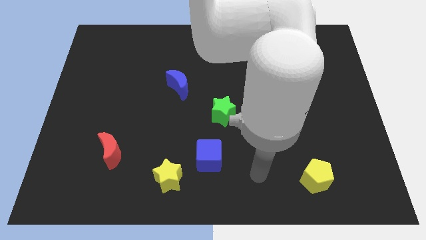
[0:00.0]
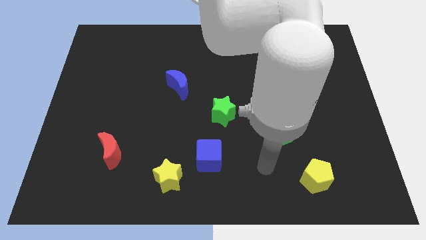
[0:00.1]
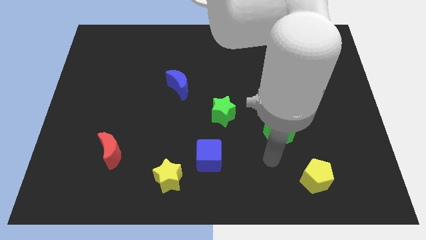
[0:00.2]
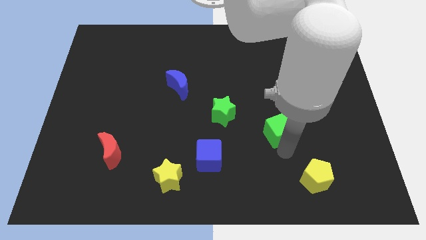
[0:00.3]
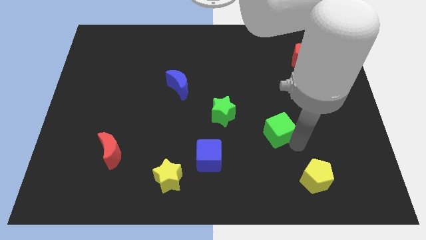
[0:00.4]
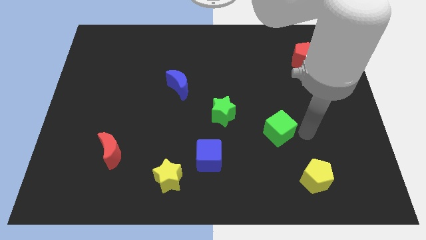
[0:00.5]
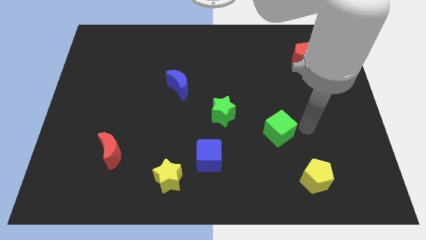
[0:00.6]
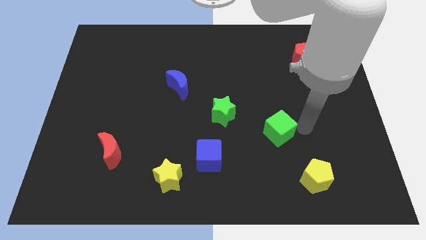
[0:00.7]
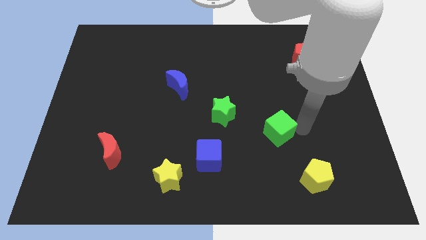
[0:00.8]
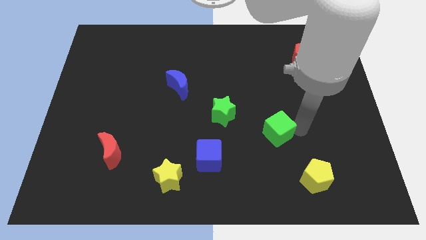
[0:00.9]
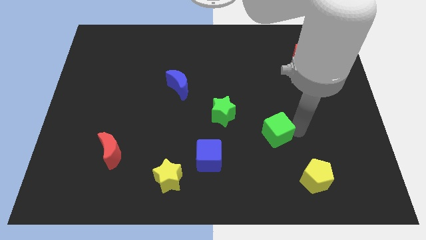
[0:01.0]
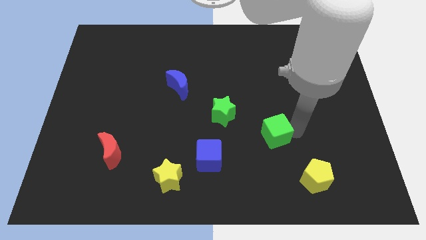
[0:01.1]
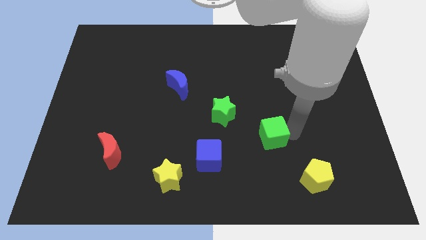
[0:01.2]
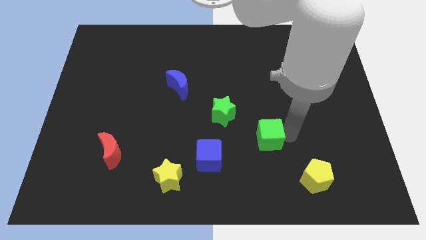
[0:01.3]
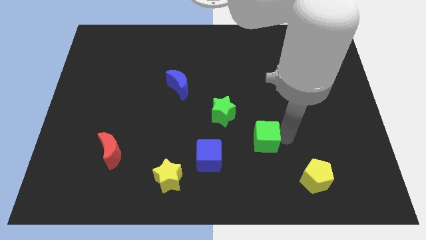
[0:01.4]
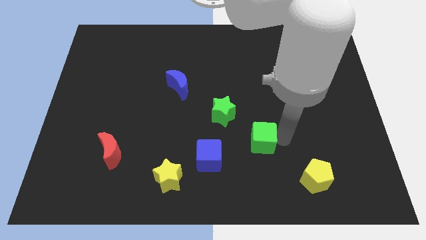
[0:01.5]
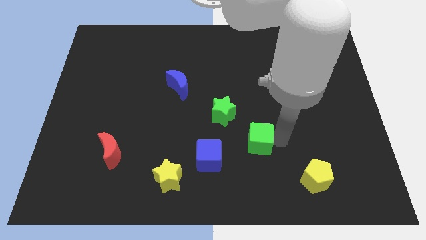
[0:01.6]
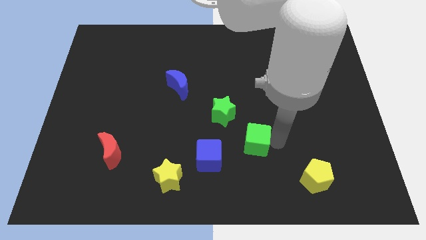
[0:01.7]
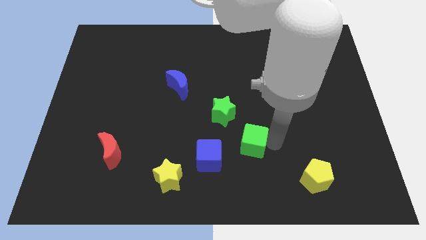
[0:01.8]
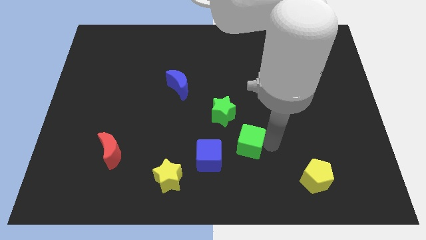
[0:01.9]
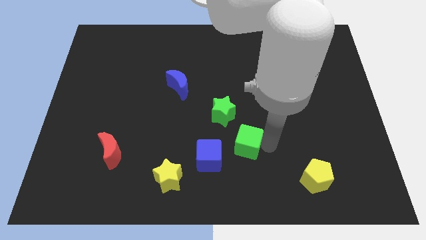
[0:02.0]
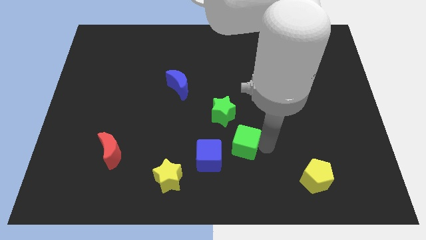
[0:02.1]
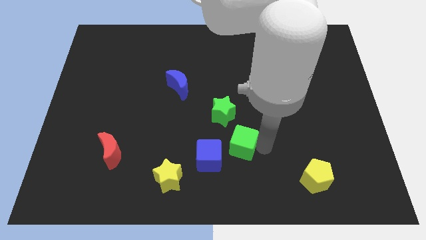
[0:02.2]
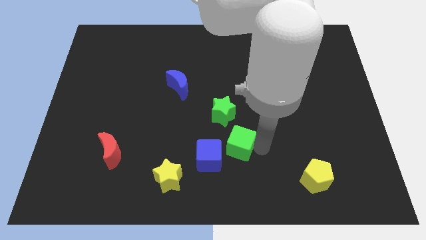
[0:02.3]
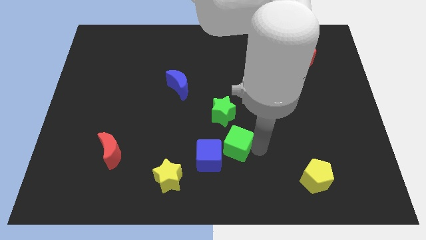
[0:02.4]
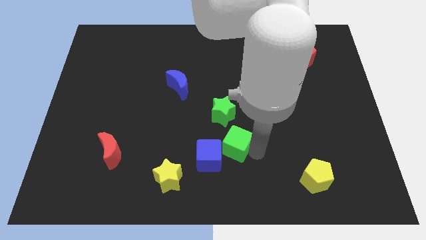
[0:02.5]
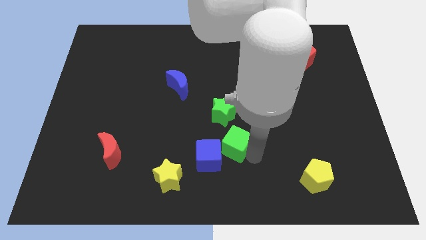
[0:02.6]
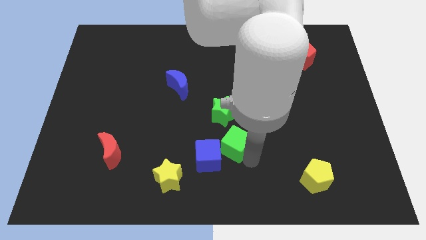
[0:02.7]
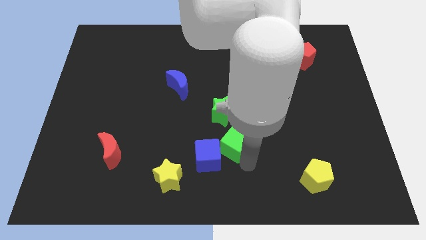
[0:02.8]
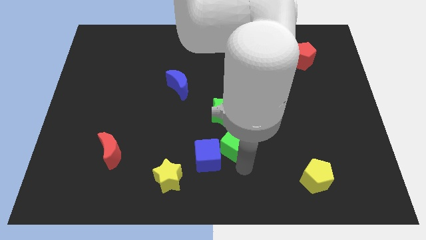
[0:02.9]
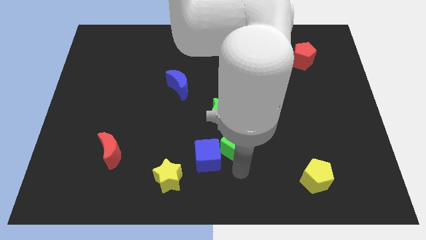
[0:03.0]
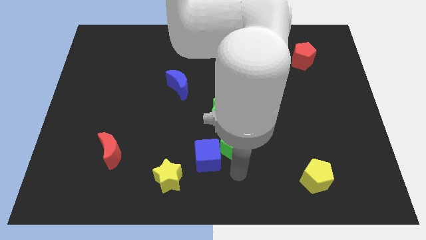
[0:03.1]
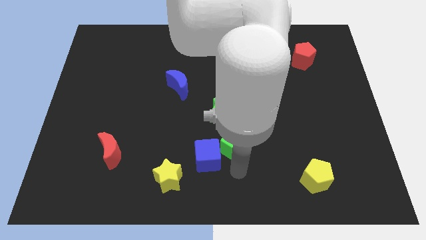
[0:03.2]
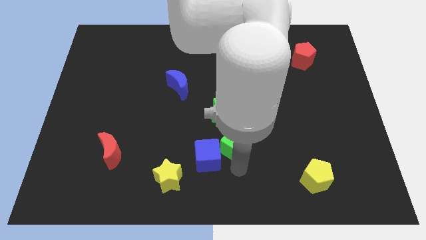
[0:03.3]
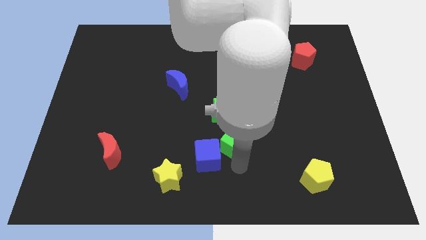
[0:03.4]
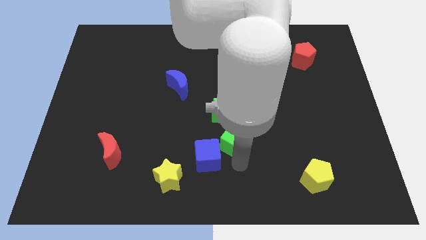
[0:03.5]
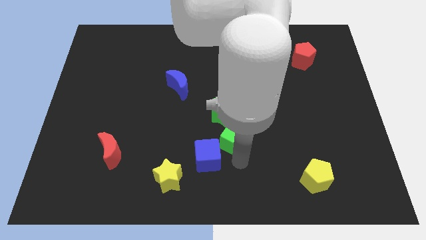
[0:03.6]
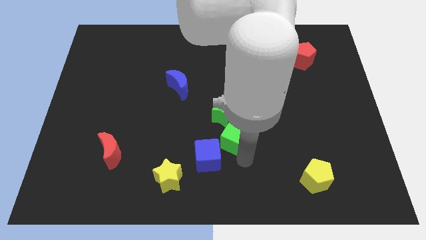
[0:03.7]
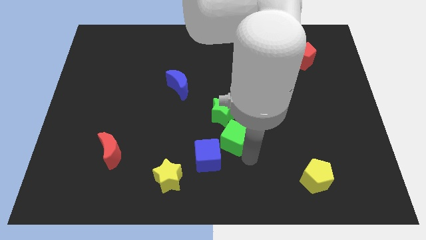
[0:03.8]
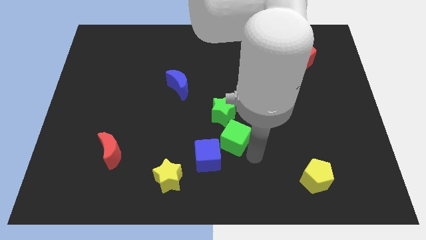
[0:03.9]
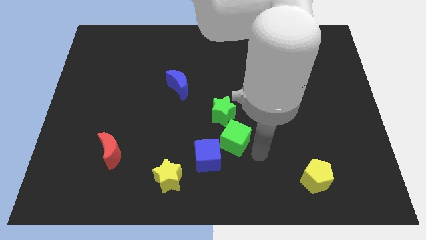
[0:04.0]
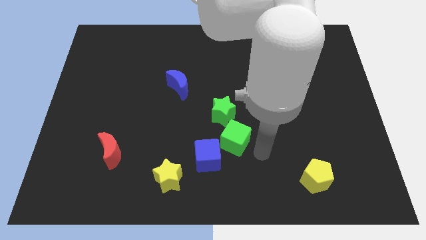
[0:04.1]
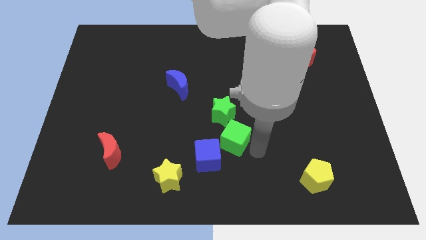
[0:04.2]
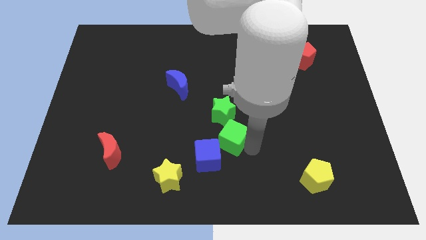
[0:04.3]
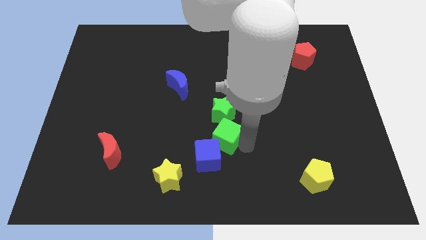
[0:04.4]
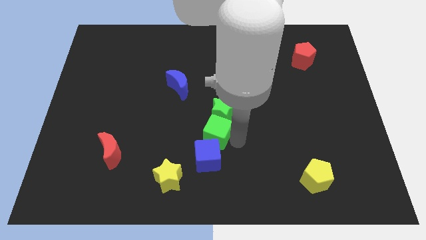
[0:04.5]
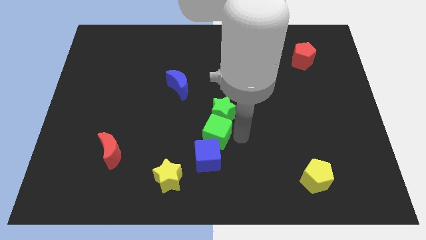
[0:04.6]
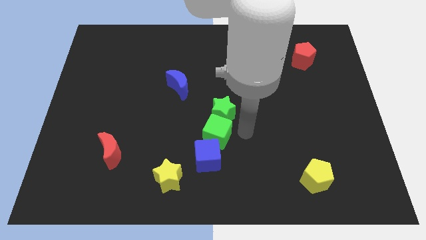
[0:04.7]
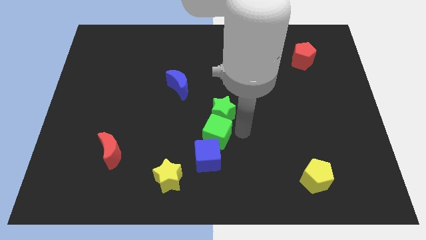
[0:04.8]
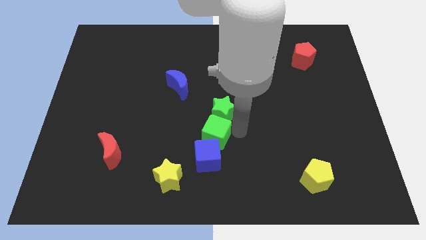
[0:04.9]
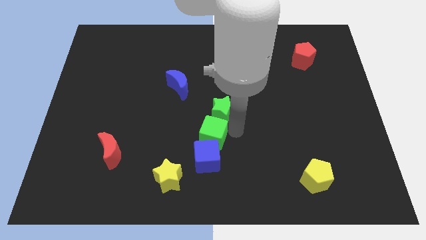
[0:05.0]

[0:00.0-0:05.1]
move the green cube to the top left of the blue cube

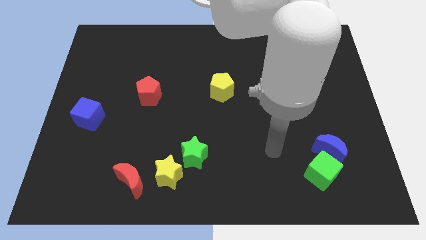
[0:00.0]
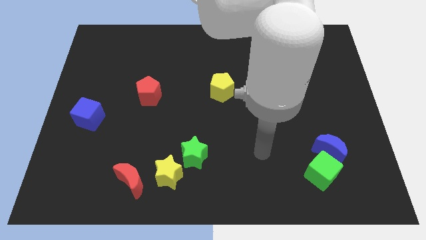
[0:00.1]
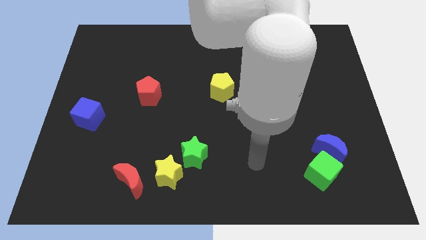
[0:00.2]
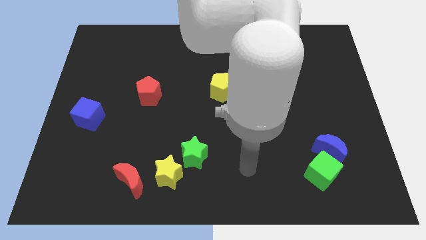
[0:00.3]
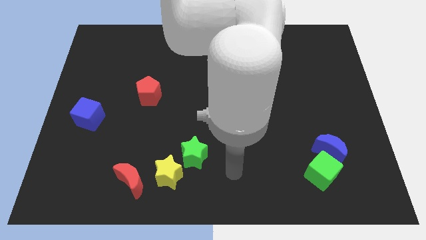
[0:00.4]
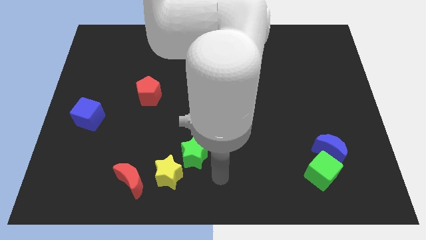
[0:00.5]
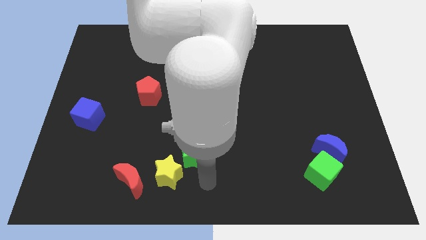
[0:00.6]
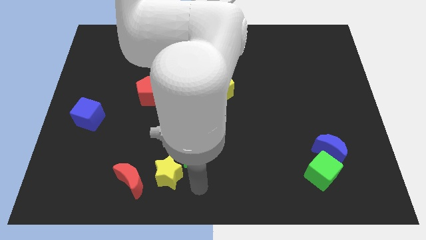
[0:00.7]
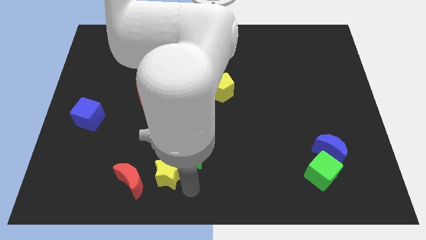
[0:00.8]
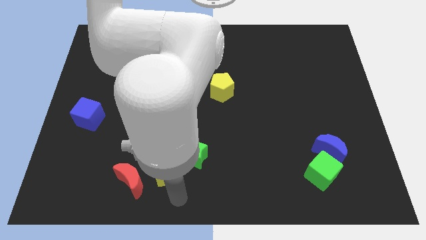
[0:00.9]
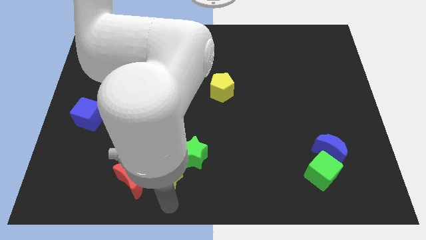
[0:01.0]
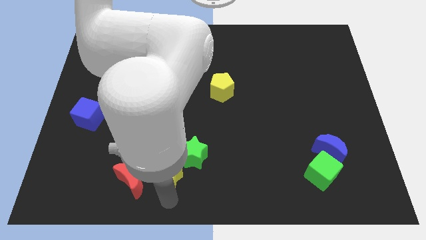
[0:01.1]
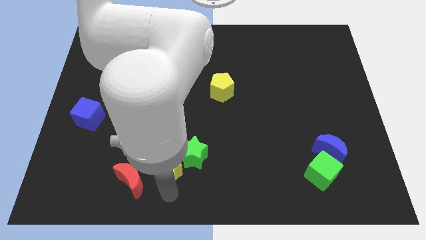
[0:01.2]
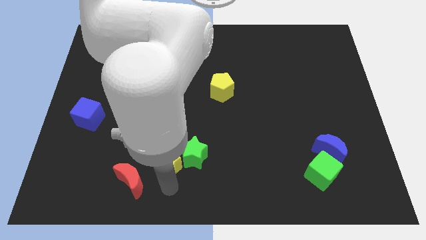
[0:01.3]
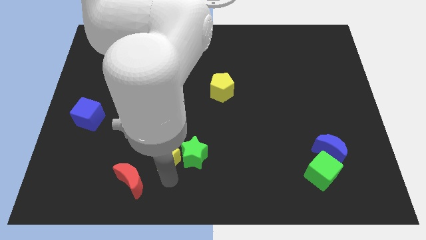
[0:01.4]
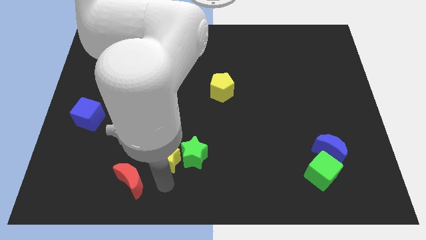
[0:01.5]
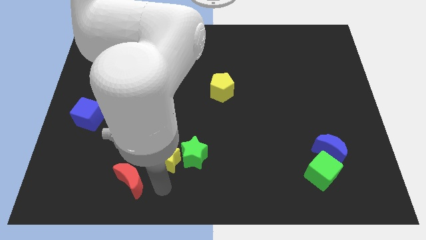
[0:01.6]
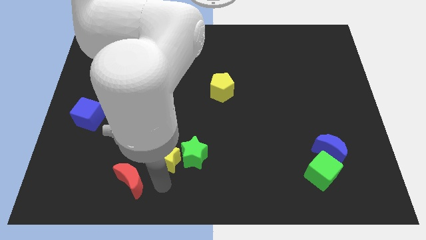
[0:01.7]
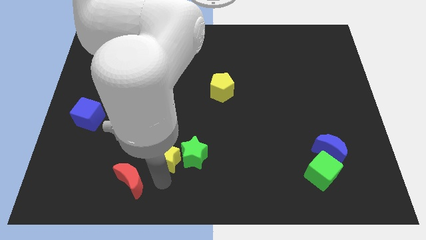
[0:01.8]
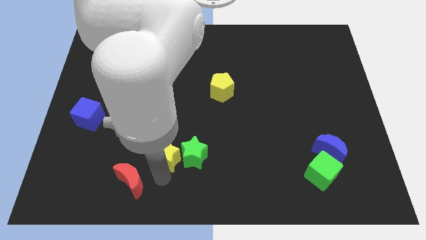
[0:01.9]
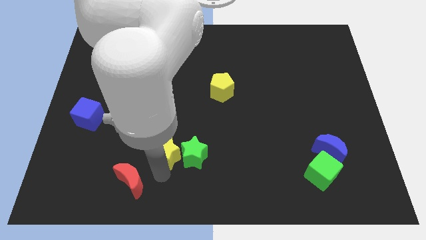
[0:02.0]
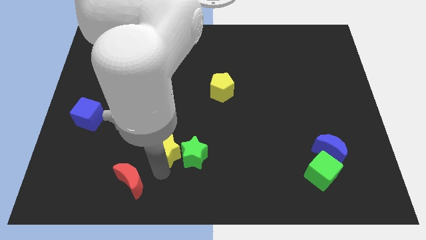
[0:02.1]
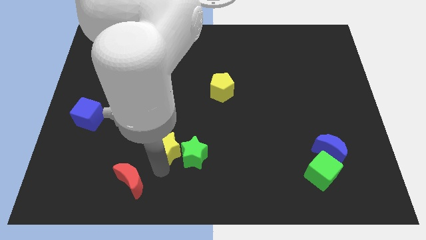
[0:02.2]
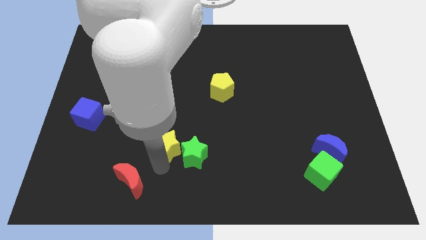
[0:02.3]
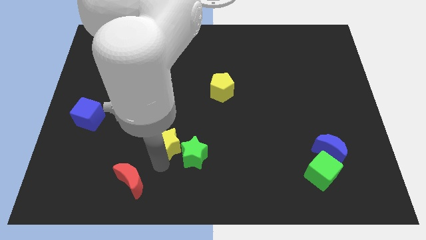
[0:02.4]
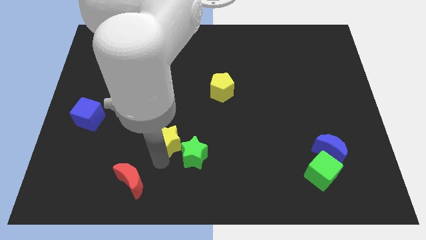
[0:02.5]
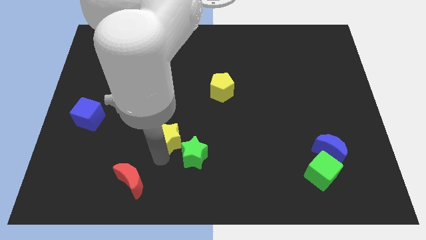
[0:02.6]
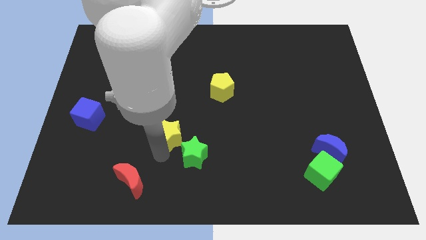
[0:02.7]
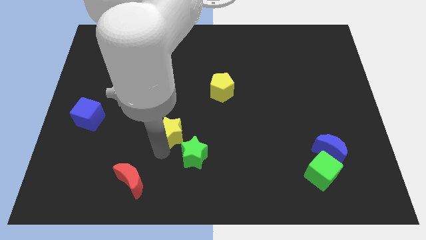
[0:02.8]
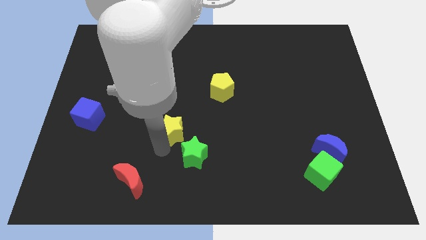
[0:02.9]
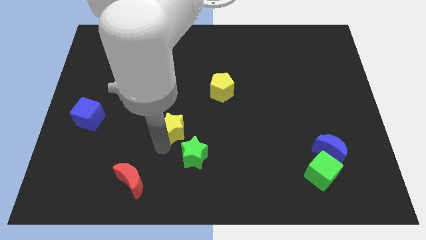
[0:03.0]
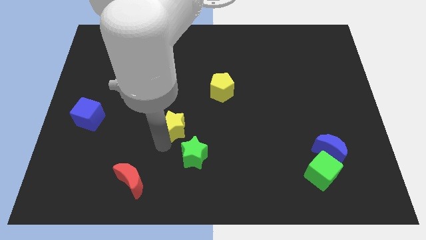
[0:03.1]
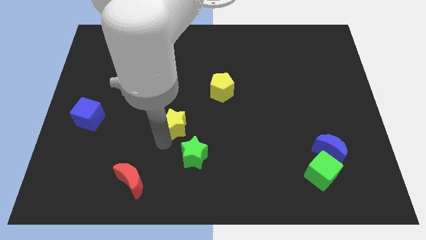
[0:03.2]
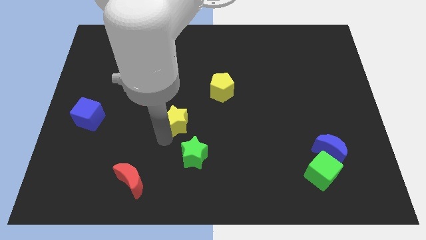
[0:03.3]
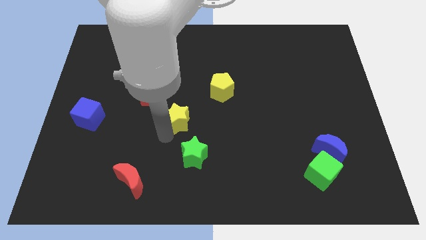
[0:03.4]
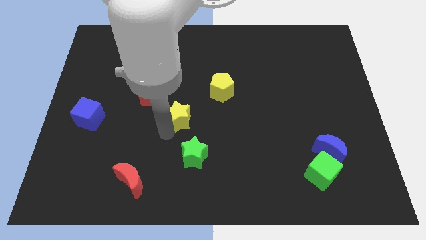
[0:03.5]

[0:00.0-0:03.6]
slide the yellow star to the bottom left of the yellow pentagon
